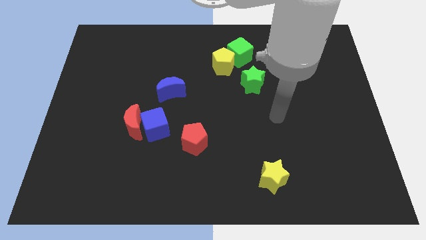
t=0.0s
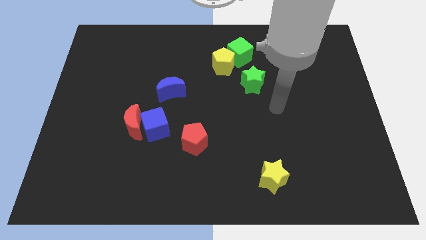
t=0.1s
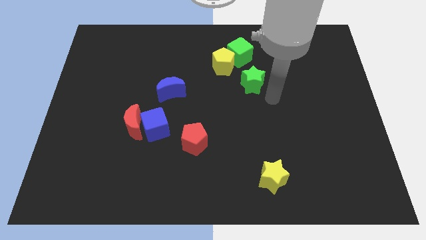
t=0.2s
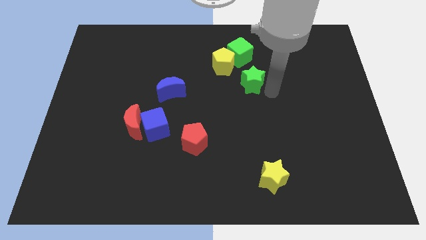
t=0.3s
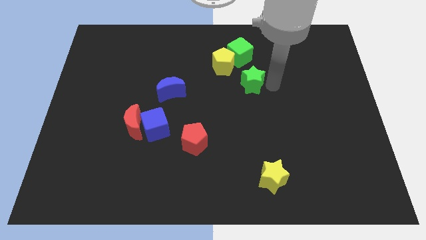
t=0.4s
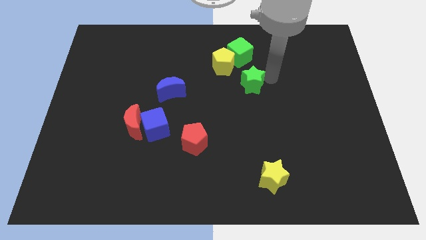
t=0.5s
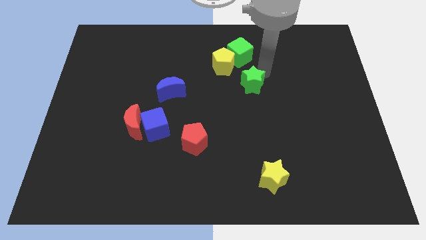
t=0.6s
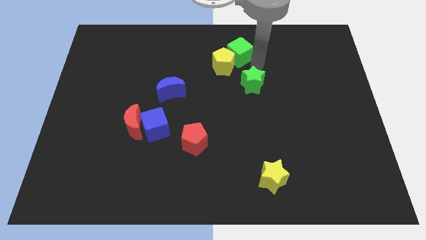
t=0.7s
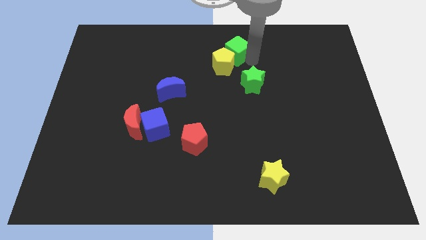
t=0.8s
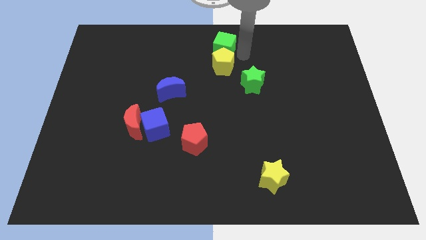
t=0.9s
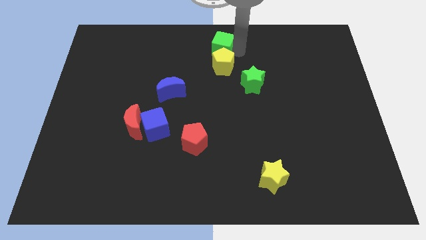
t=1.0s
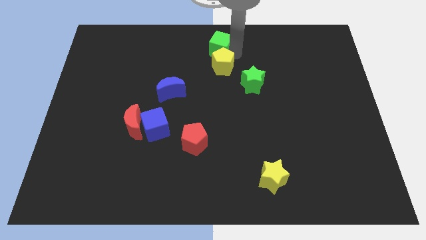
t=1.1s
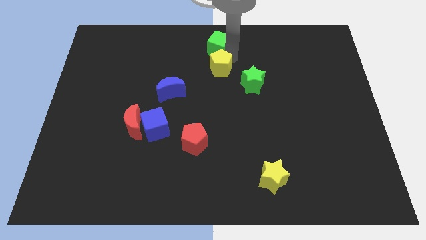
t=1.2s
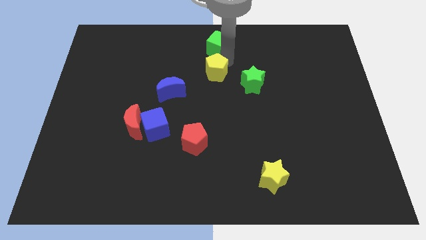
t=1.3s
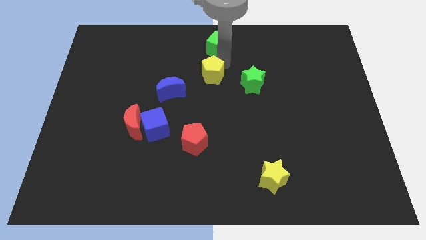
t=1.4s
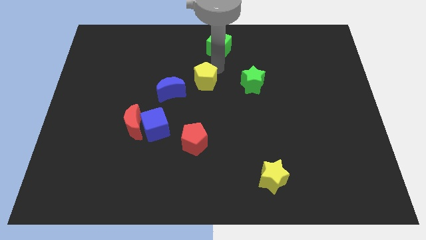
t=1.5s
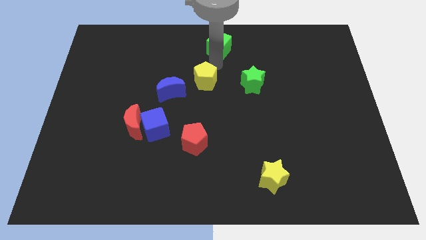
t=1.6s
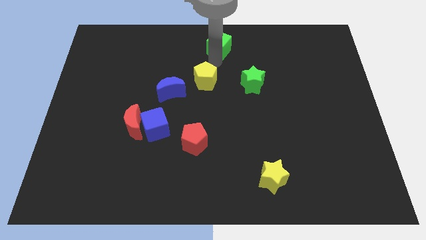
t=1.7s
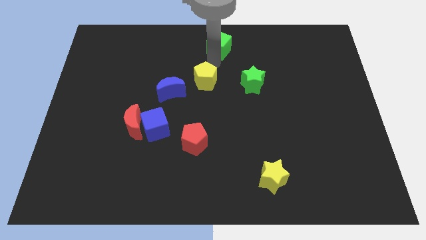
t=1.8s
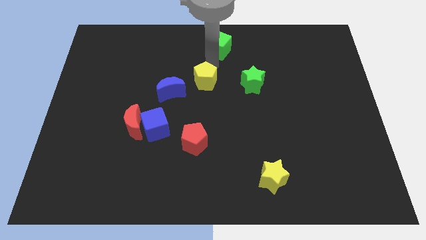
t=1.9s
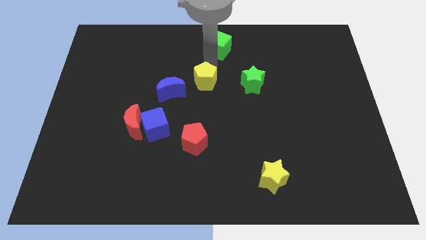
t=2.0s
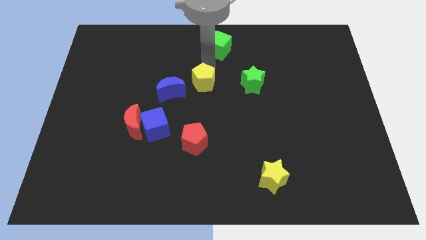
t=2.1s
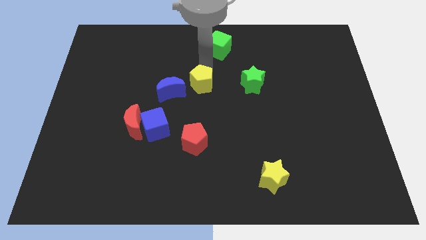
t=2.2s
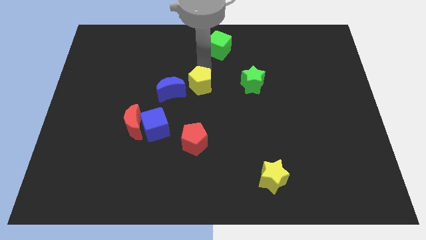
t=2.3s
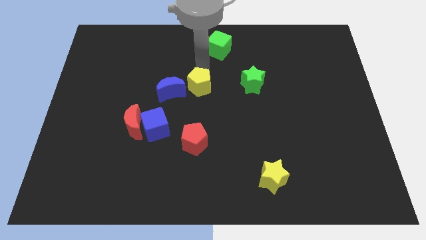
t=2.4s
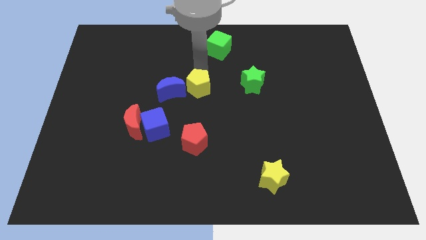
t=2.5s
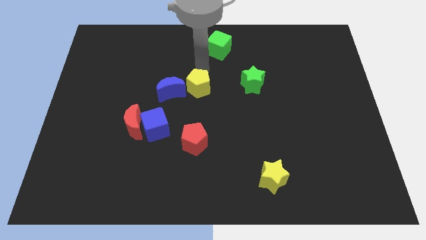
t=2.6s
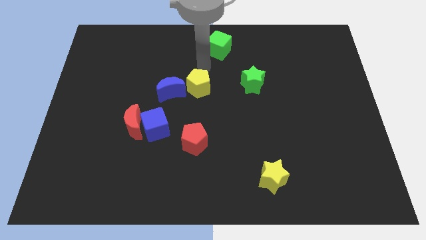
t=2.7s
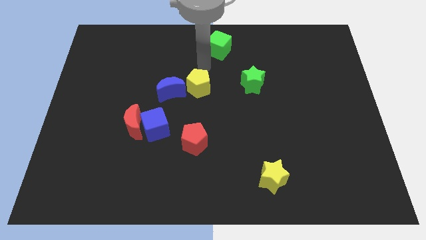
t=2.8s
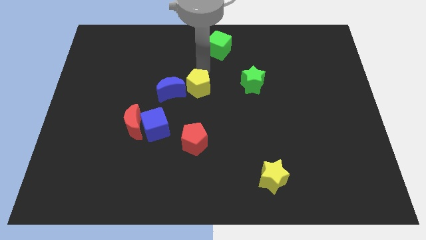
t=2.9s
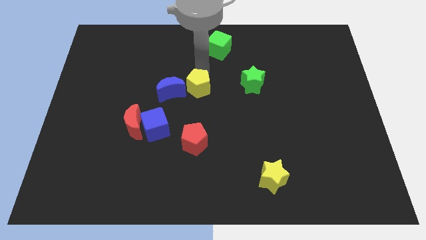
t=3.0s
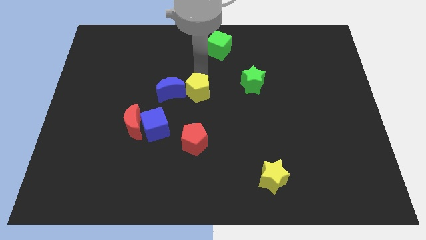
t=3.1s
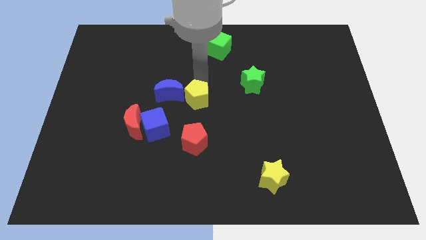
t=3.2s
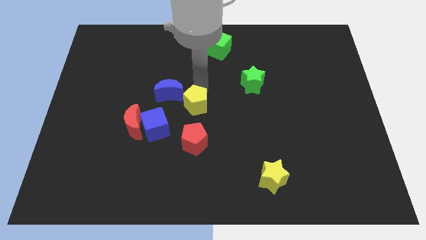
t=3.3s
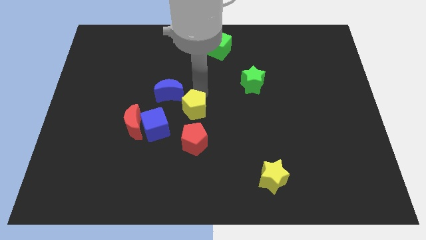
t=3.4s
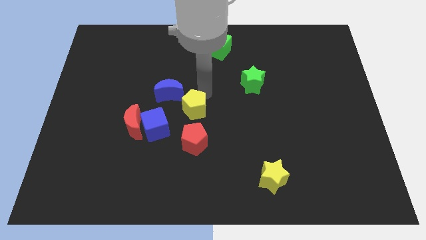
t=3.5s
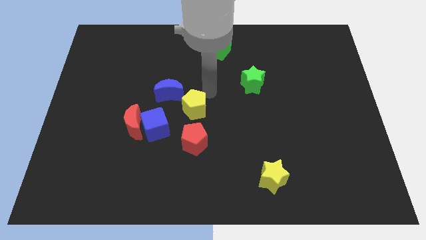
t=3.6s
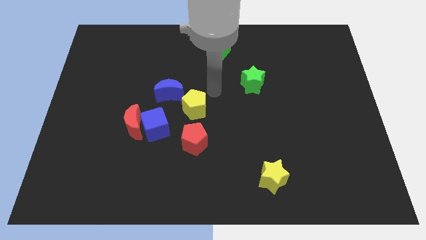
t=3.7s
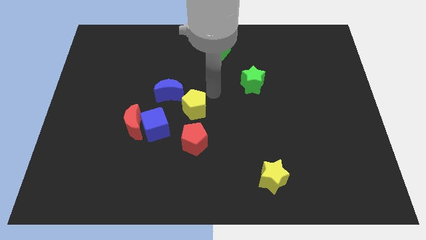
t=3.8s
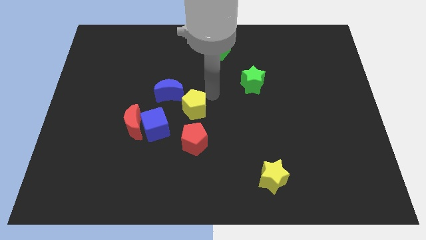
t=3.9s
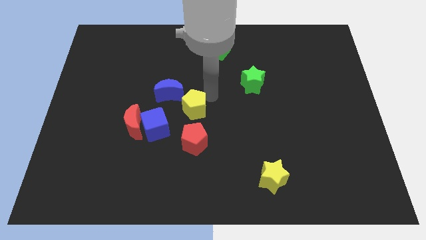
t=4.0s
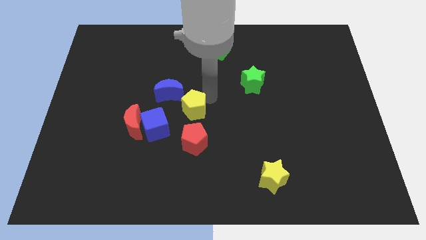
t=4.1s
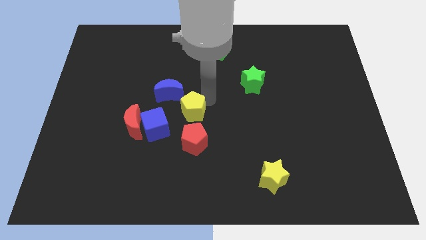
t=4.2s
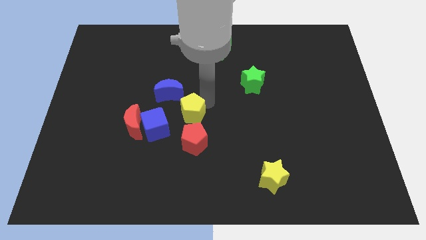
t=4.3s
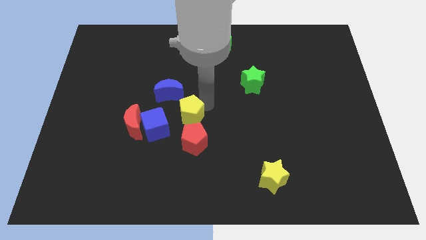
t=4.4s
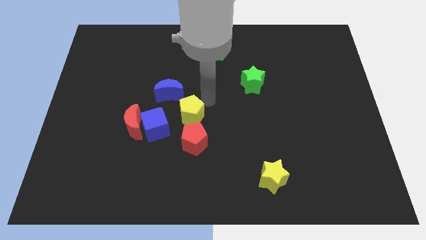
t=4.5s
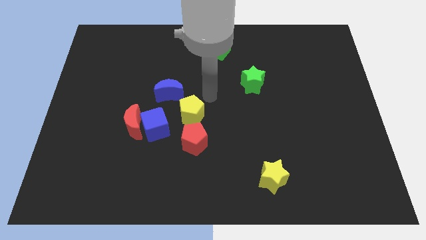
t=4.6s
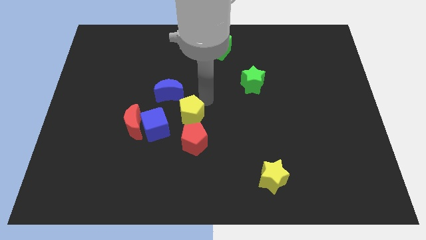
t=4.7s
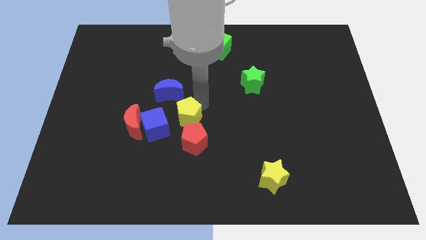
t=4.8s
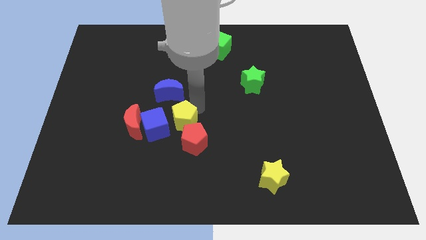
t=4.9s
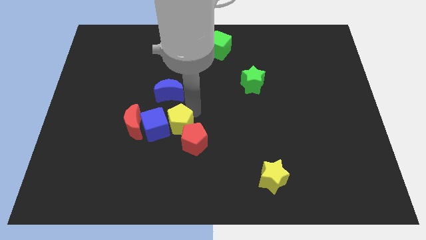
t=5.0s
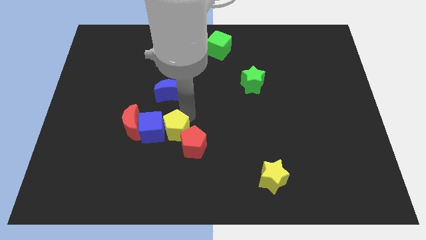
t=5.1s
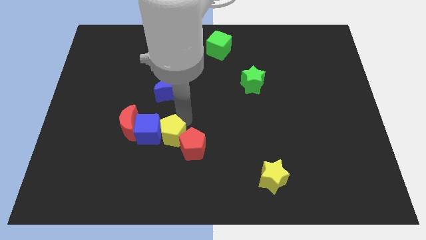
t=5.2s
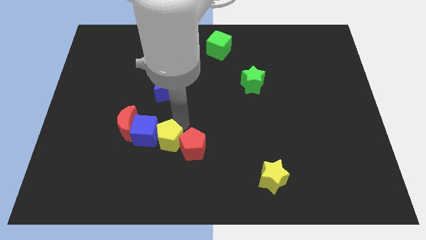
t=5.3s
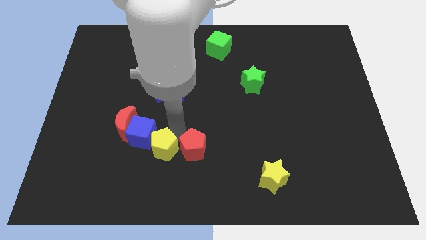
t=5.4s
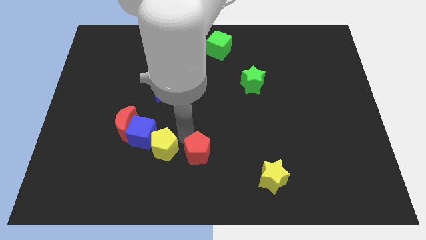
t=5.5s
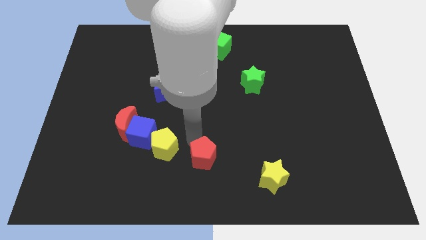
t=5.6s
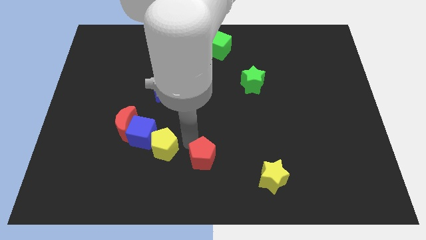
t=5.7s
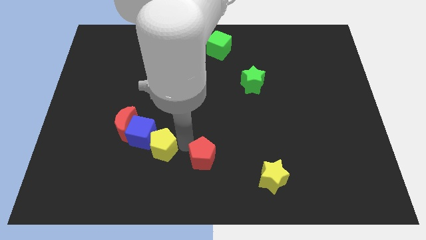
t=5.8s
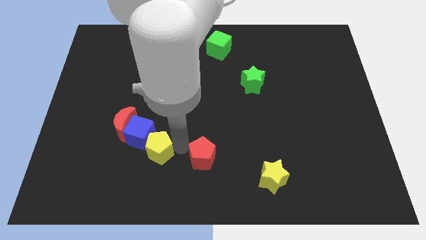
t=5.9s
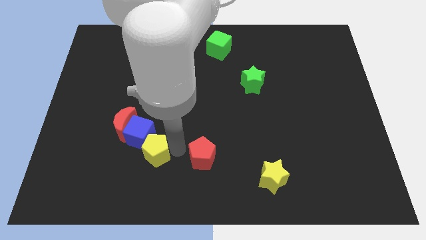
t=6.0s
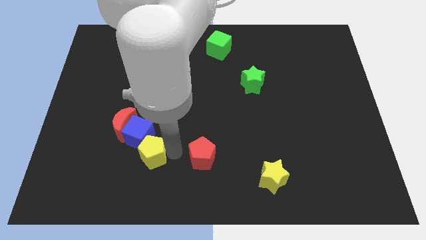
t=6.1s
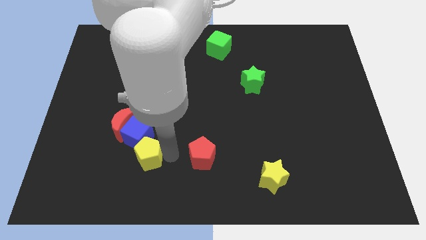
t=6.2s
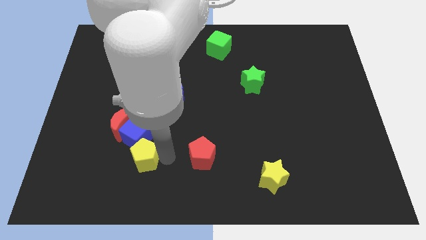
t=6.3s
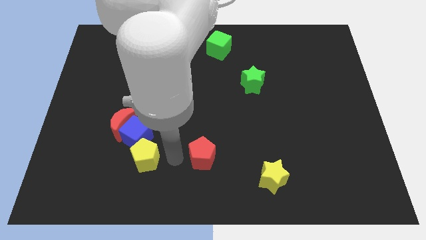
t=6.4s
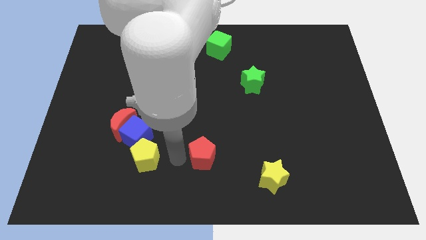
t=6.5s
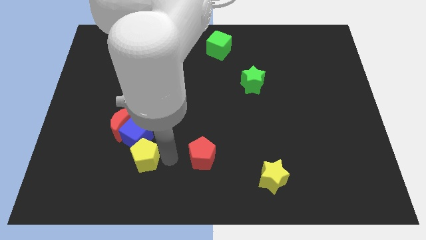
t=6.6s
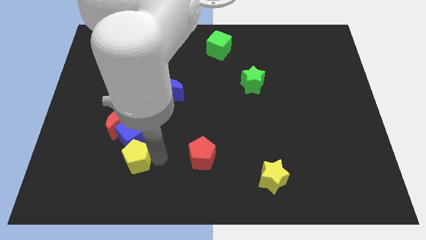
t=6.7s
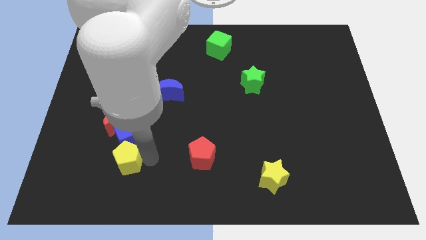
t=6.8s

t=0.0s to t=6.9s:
slide the yellow pentagon to the bottom left of the blue cube
